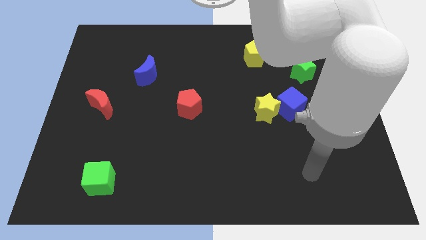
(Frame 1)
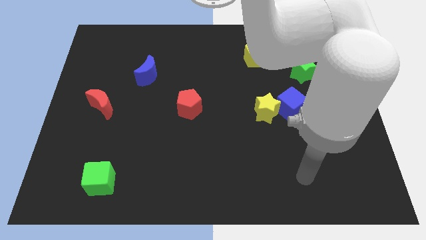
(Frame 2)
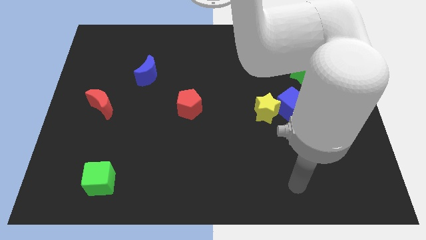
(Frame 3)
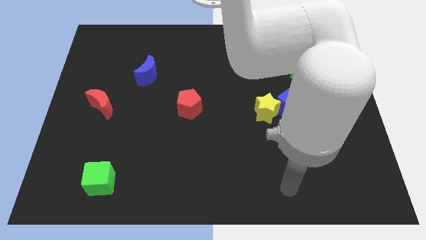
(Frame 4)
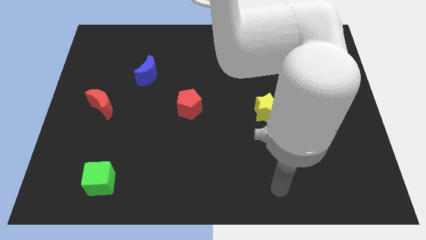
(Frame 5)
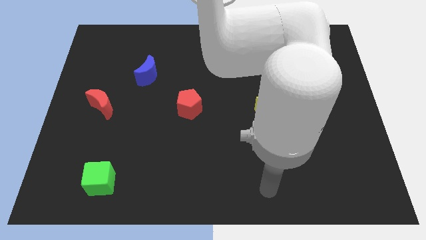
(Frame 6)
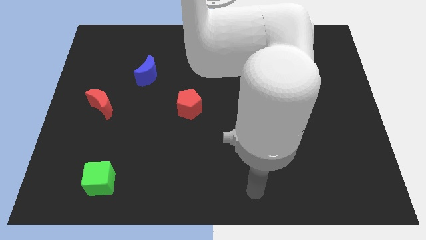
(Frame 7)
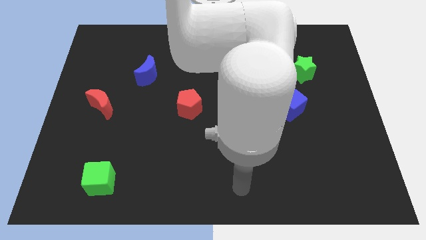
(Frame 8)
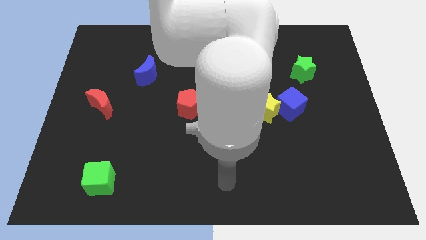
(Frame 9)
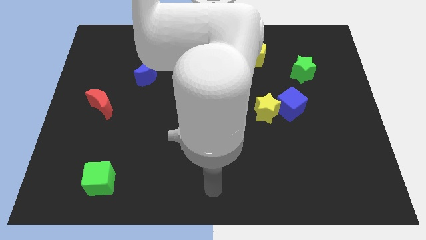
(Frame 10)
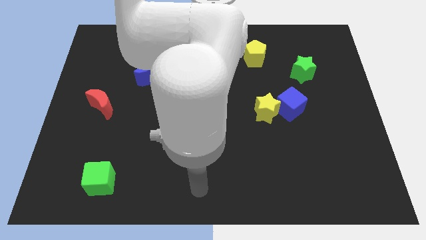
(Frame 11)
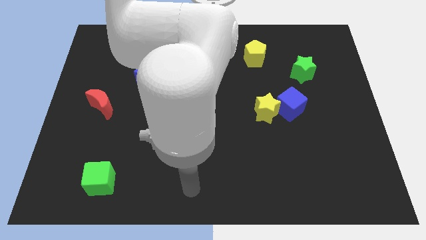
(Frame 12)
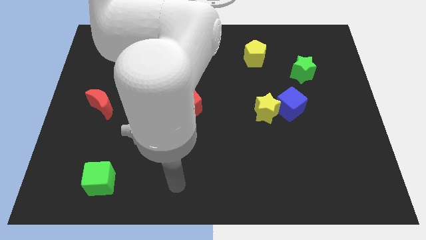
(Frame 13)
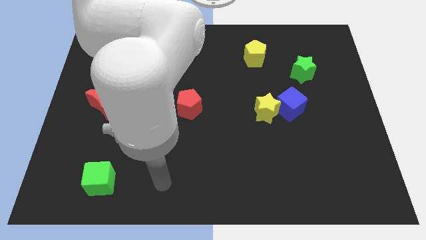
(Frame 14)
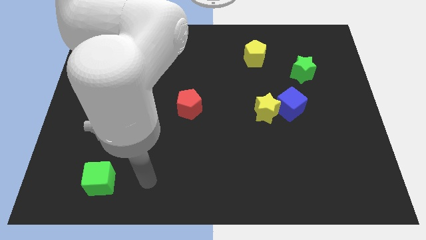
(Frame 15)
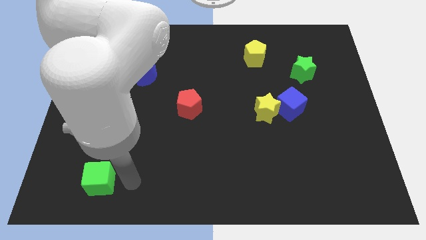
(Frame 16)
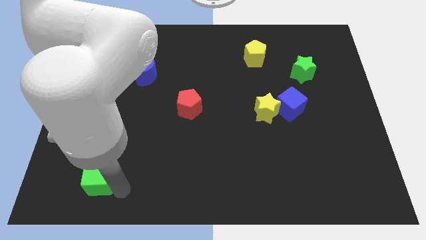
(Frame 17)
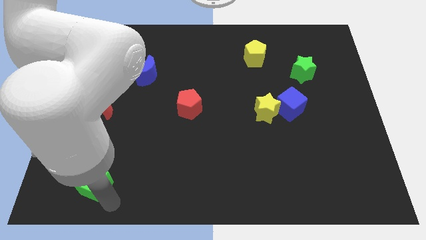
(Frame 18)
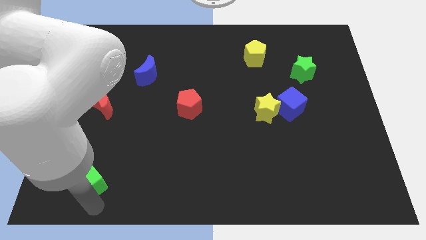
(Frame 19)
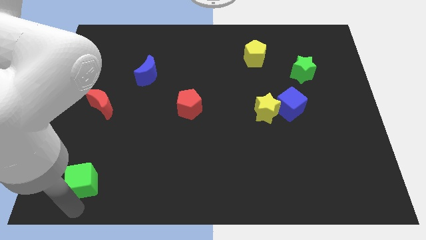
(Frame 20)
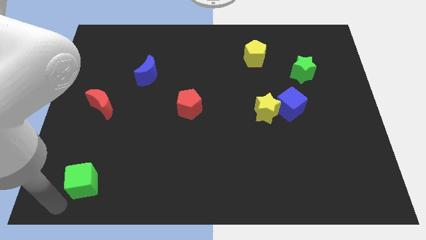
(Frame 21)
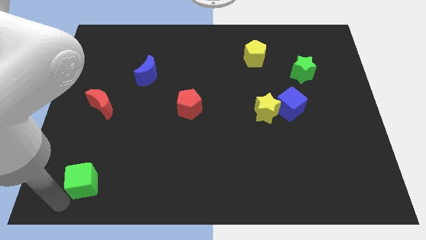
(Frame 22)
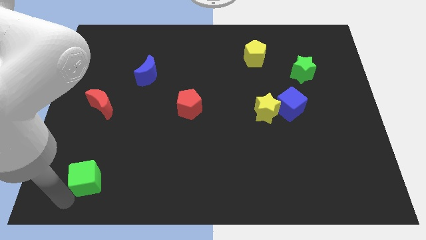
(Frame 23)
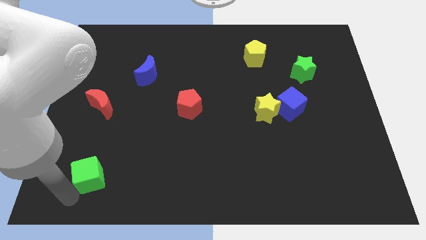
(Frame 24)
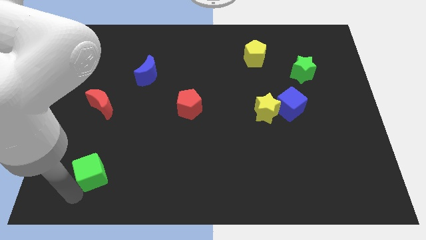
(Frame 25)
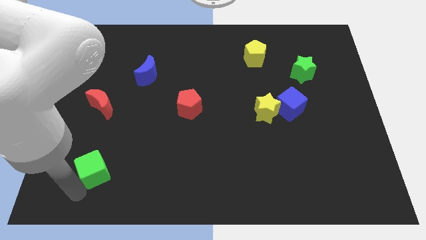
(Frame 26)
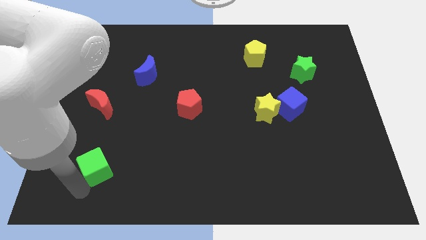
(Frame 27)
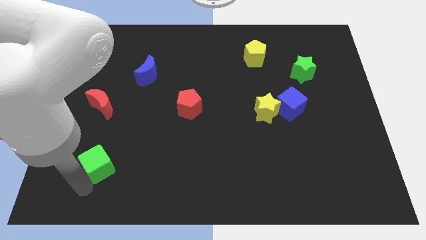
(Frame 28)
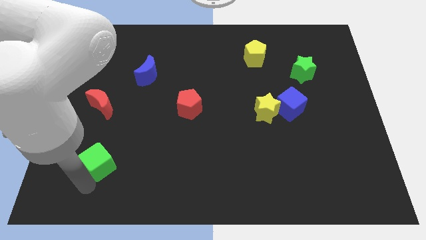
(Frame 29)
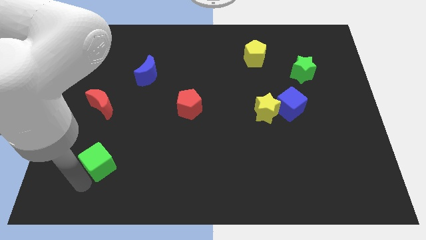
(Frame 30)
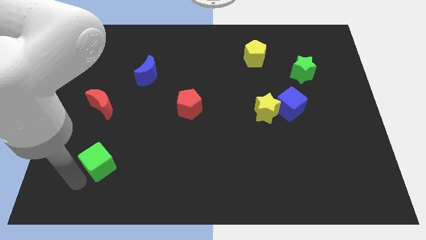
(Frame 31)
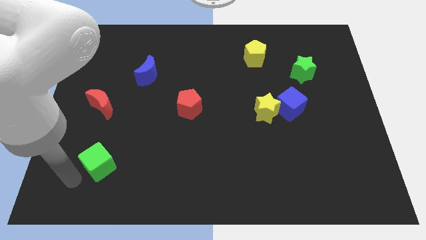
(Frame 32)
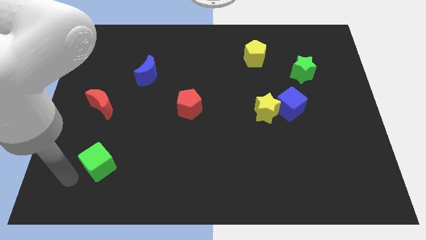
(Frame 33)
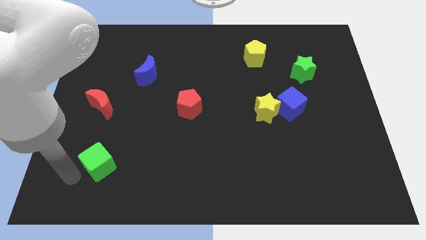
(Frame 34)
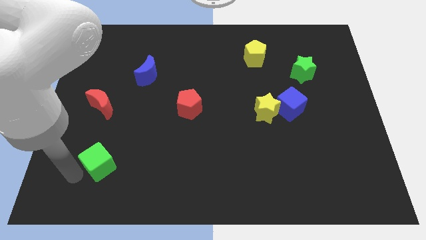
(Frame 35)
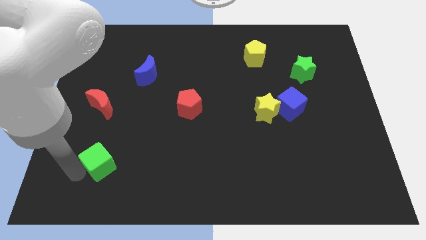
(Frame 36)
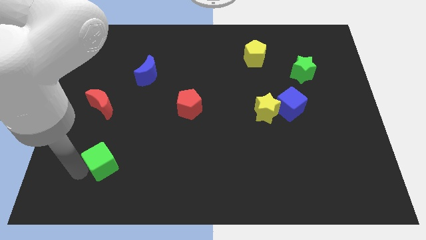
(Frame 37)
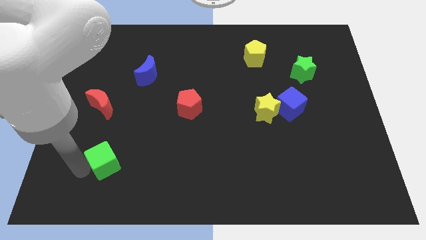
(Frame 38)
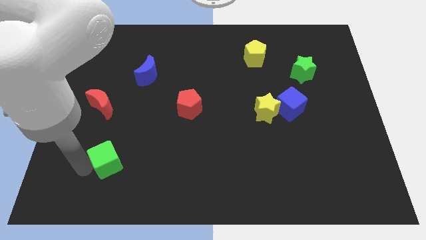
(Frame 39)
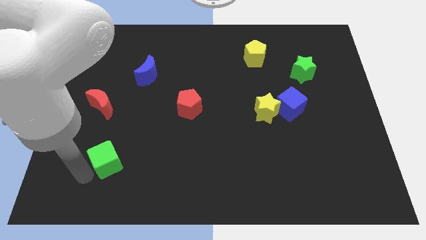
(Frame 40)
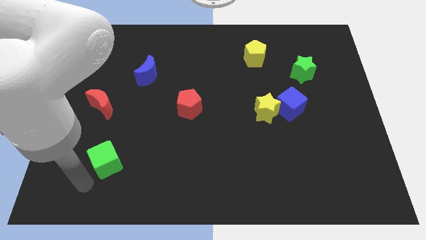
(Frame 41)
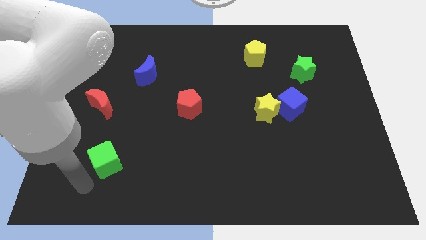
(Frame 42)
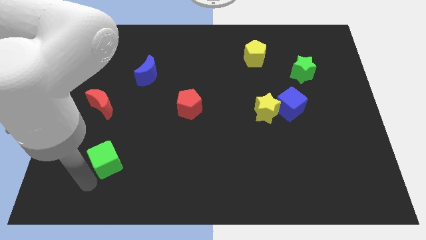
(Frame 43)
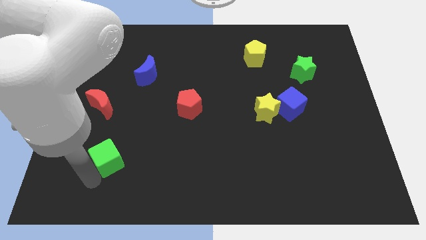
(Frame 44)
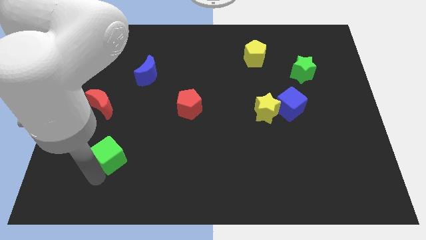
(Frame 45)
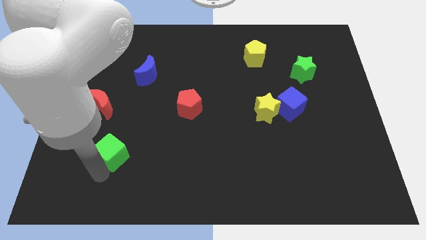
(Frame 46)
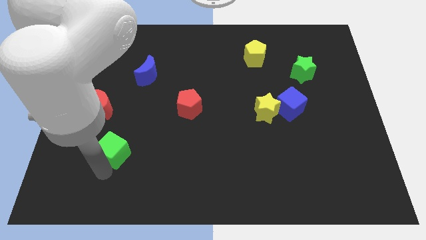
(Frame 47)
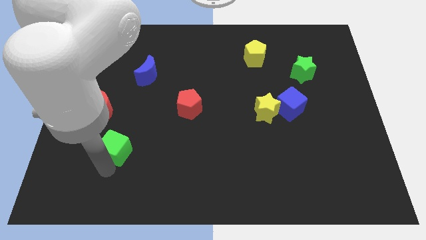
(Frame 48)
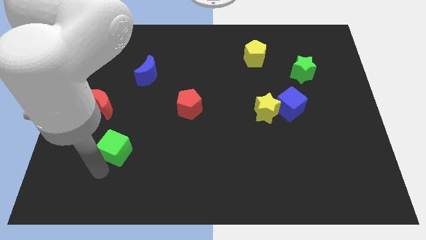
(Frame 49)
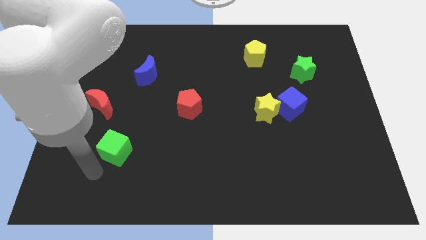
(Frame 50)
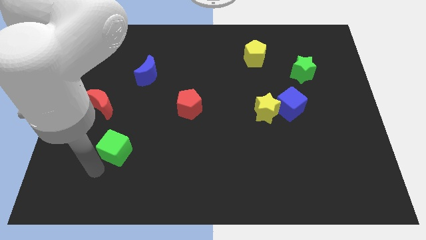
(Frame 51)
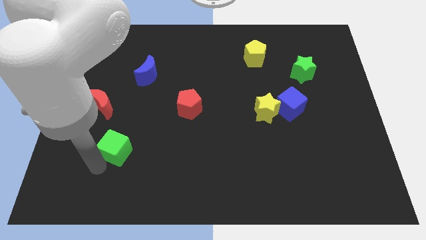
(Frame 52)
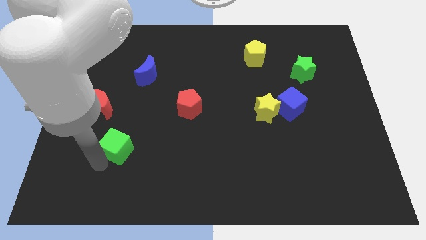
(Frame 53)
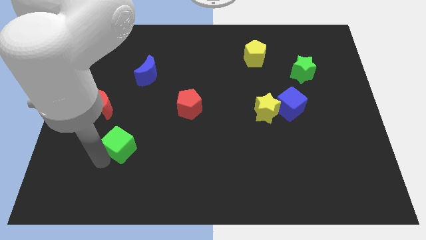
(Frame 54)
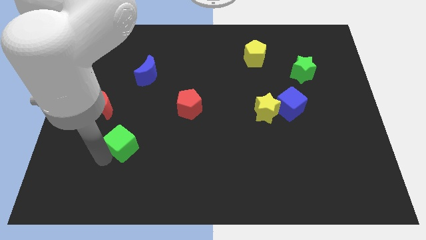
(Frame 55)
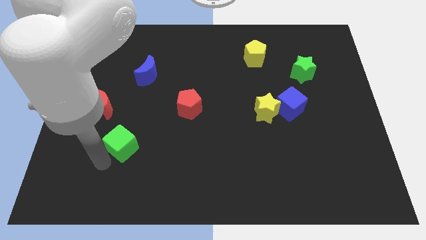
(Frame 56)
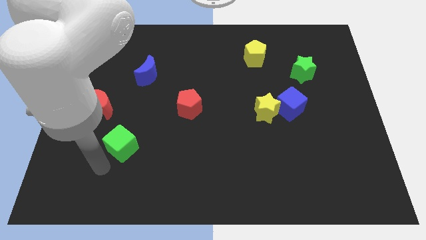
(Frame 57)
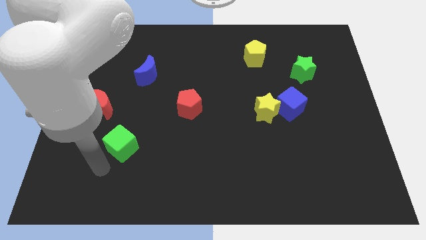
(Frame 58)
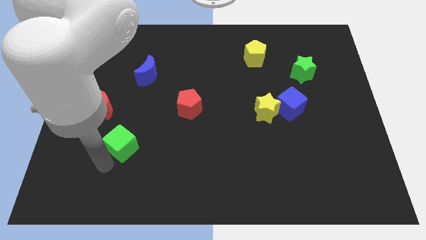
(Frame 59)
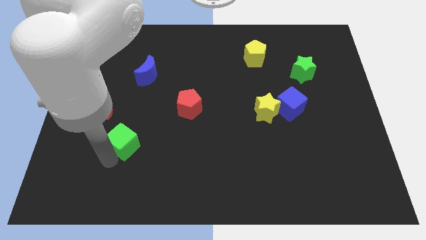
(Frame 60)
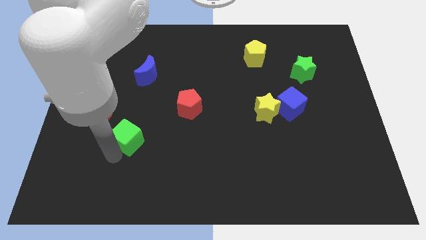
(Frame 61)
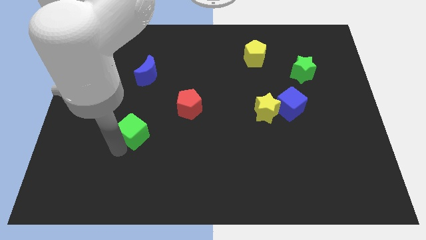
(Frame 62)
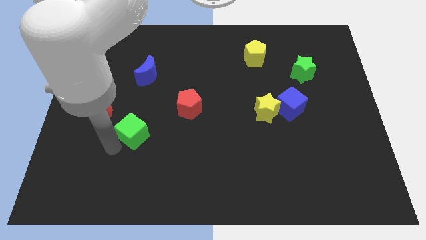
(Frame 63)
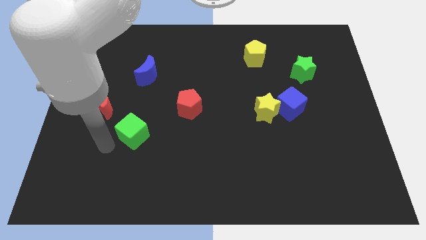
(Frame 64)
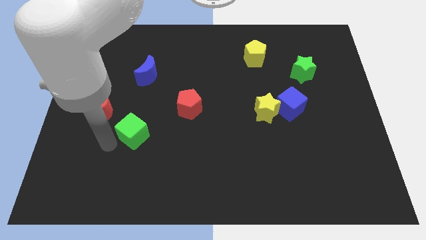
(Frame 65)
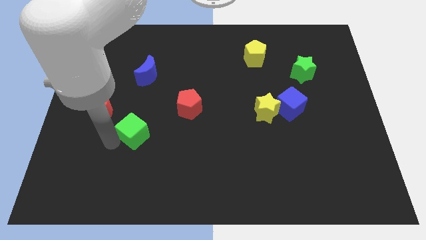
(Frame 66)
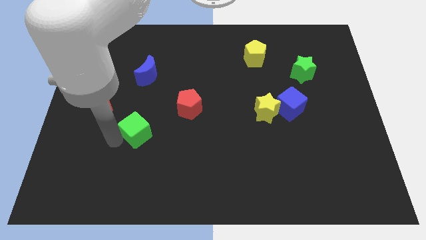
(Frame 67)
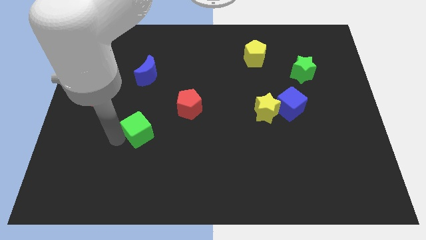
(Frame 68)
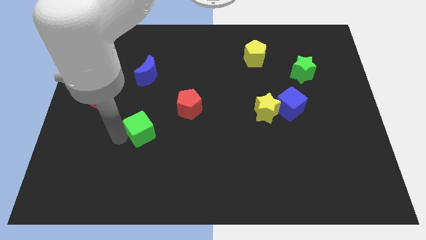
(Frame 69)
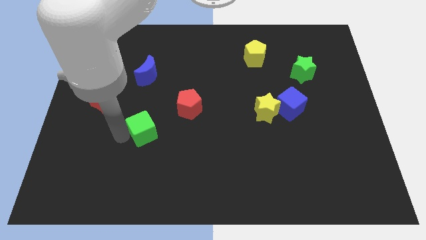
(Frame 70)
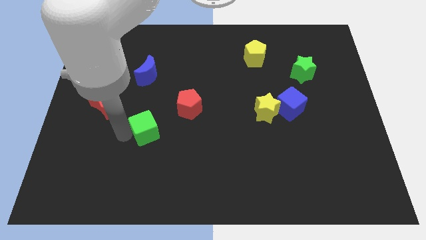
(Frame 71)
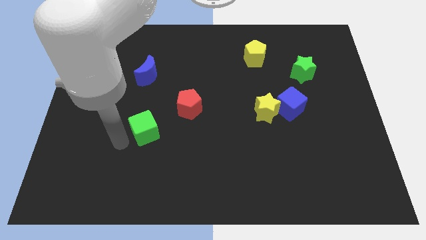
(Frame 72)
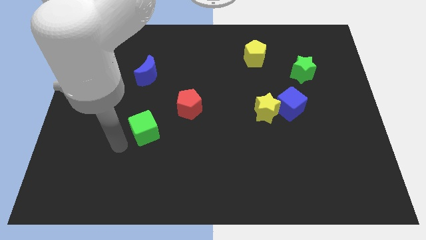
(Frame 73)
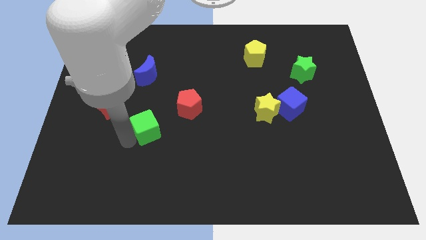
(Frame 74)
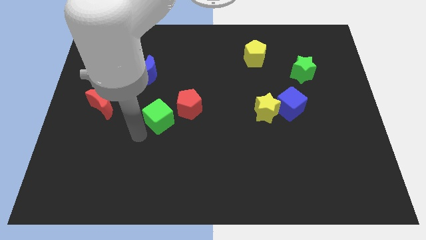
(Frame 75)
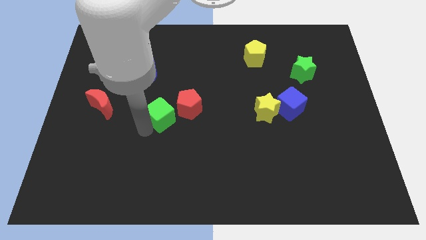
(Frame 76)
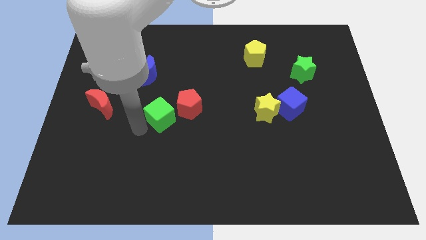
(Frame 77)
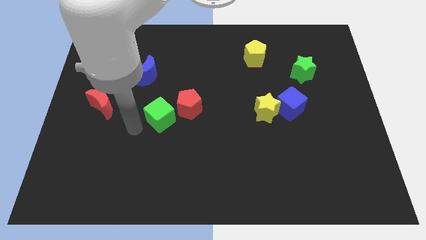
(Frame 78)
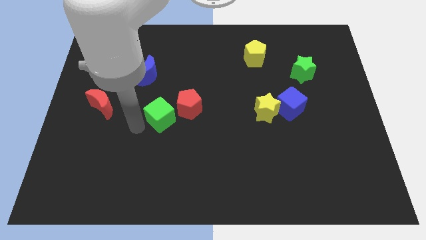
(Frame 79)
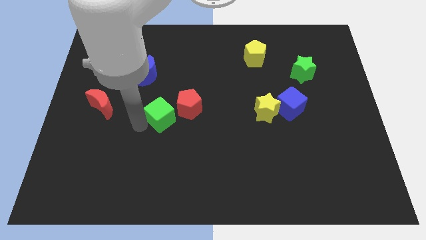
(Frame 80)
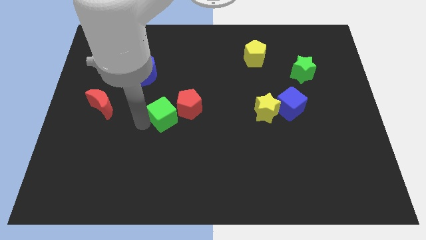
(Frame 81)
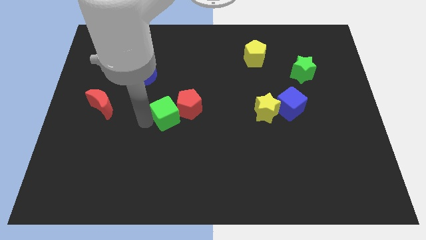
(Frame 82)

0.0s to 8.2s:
push the green cube to the red pentagon
